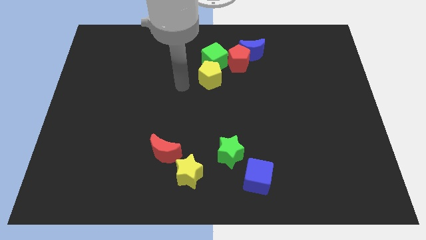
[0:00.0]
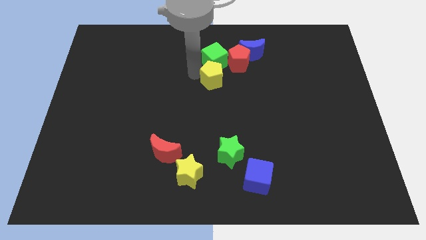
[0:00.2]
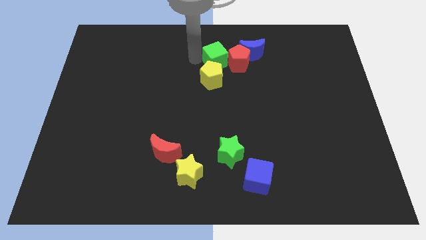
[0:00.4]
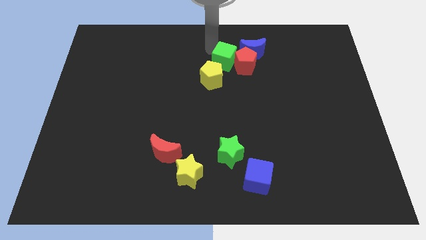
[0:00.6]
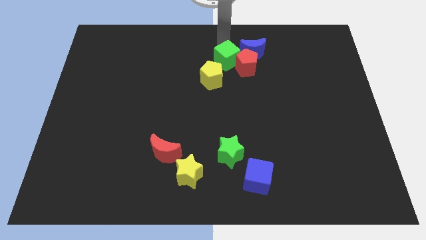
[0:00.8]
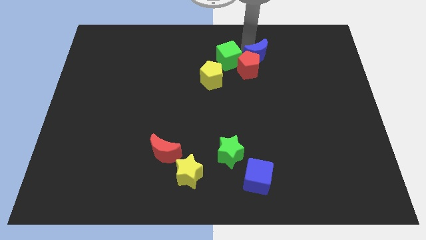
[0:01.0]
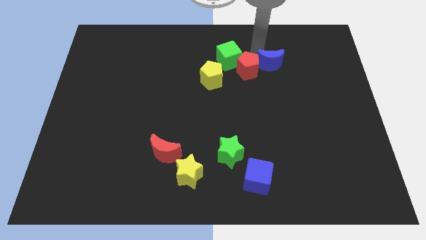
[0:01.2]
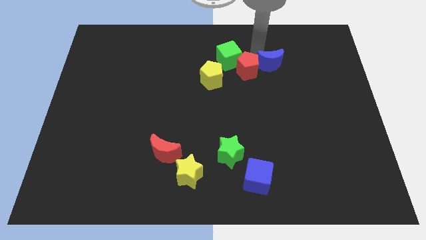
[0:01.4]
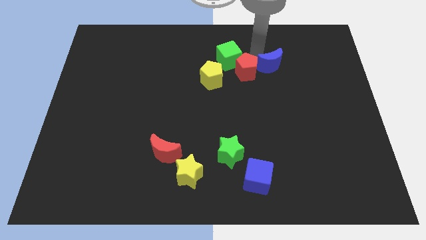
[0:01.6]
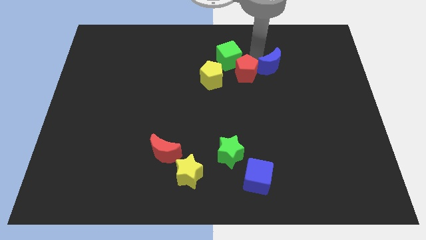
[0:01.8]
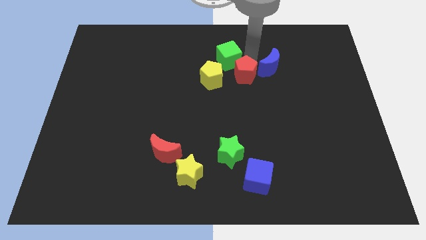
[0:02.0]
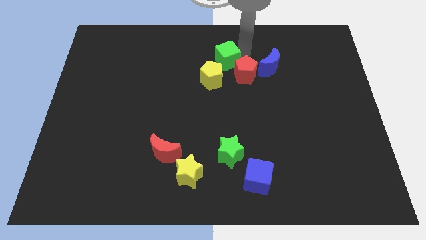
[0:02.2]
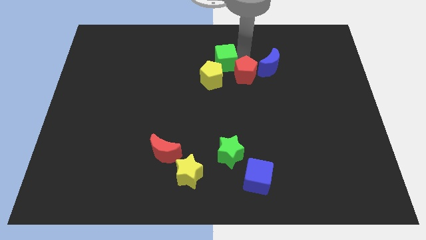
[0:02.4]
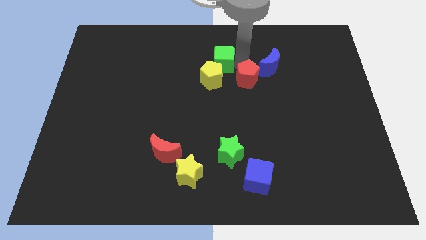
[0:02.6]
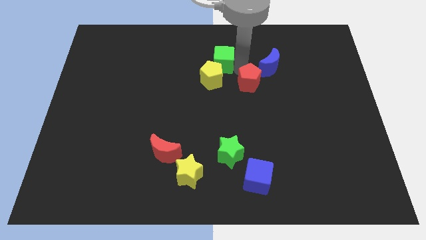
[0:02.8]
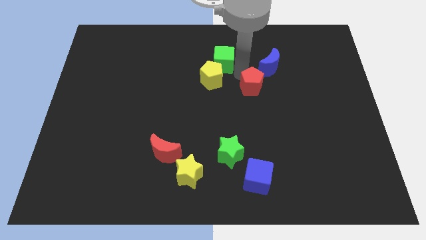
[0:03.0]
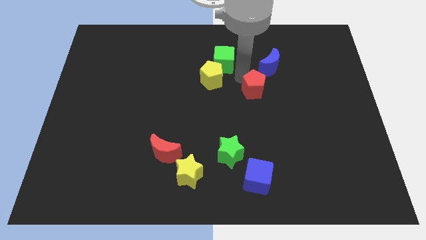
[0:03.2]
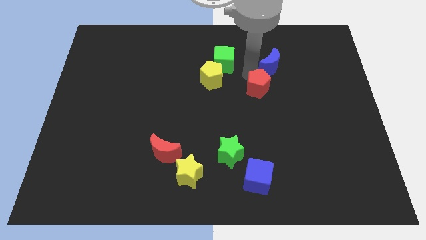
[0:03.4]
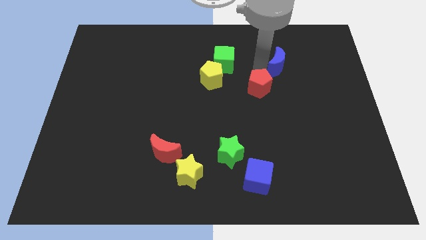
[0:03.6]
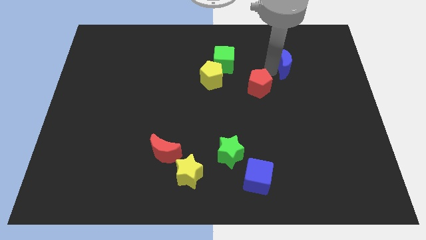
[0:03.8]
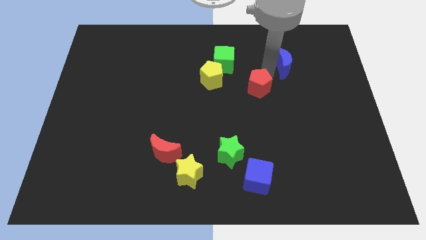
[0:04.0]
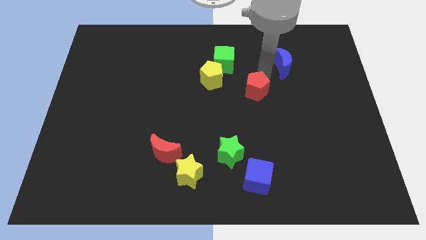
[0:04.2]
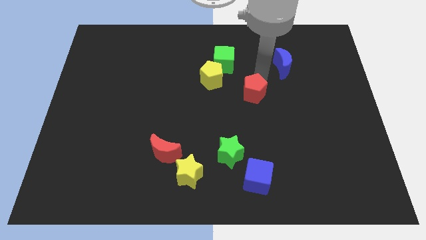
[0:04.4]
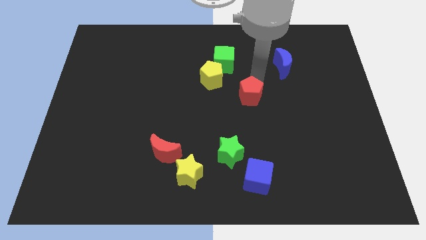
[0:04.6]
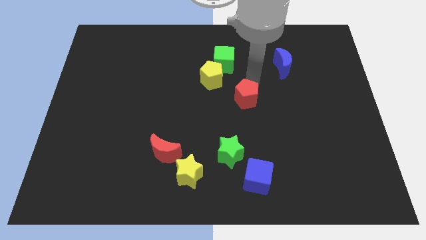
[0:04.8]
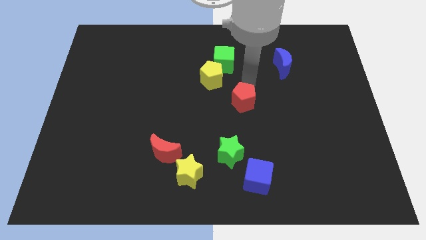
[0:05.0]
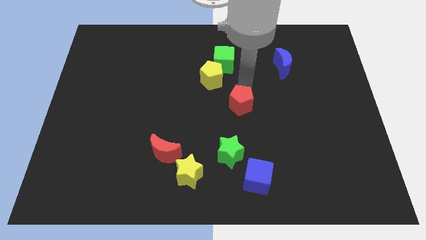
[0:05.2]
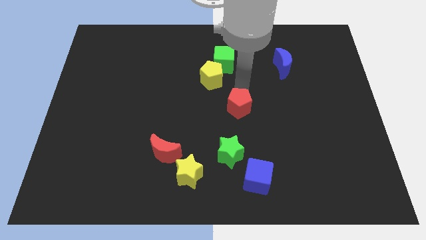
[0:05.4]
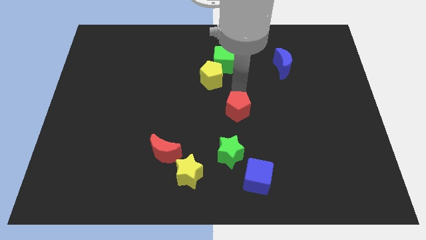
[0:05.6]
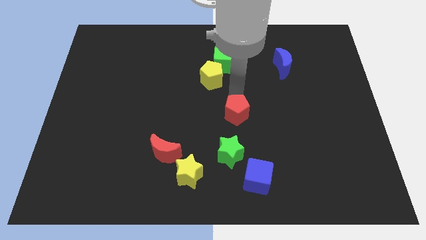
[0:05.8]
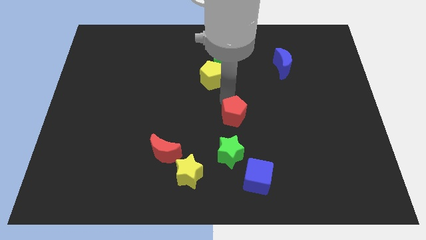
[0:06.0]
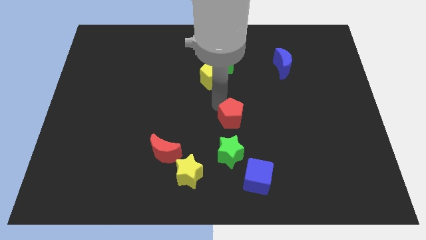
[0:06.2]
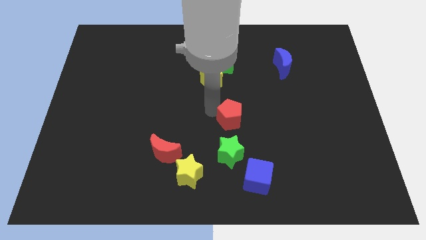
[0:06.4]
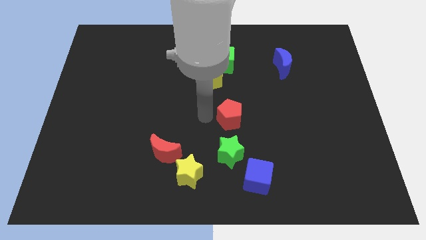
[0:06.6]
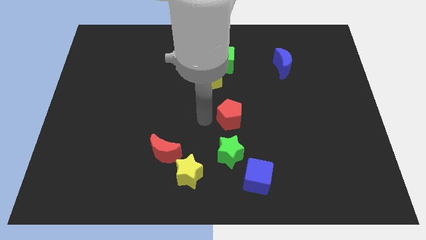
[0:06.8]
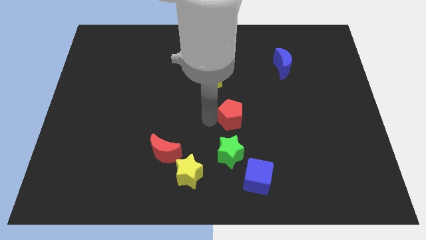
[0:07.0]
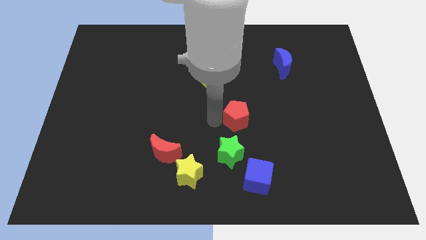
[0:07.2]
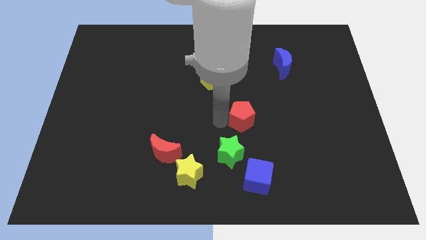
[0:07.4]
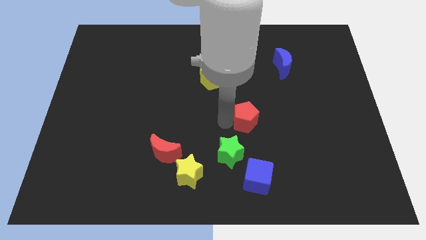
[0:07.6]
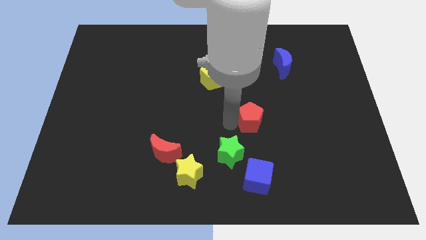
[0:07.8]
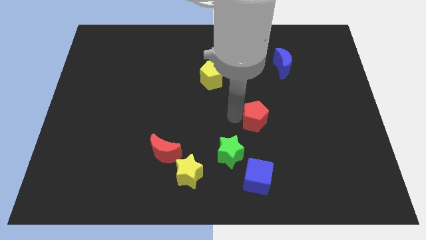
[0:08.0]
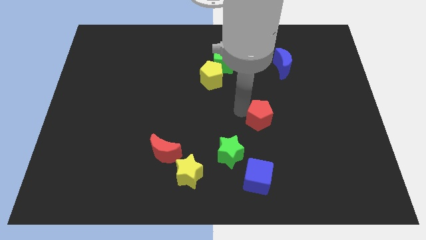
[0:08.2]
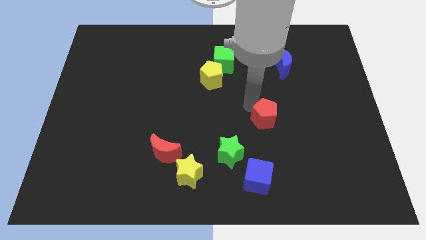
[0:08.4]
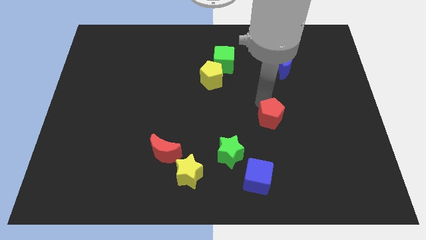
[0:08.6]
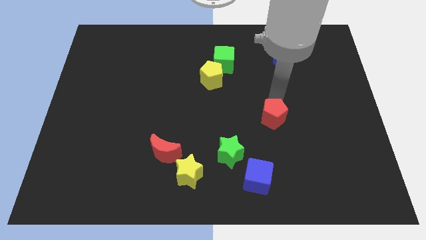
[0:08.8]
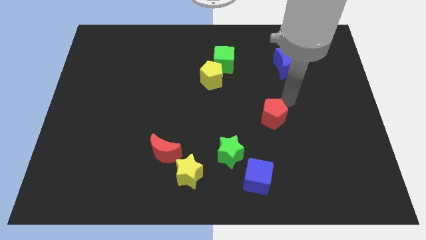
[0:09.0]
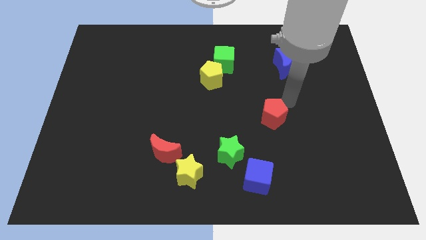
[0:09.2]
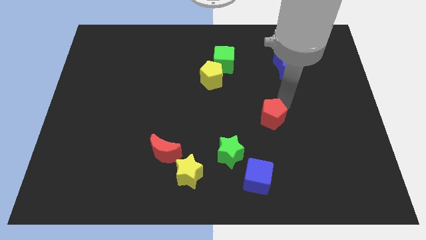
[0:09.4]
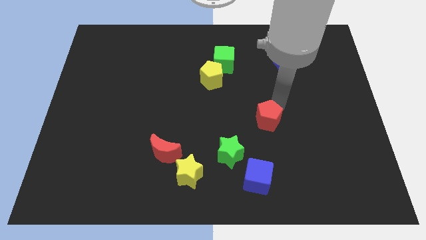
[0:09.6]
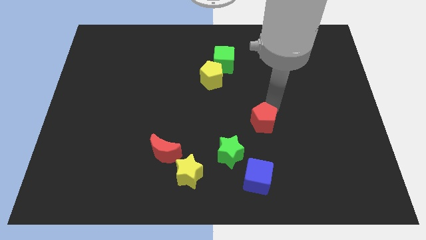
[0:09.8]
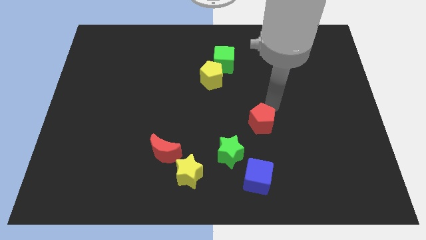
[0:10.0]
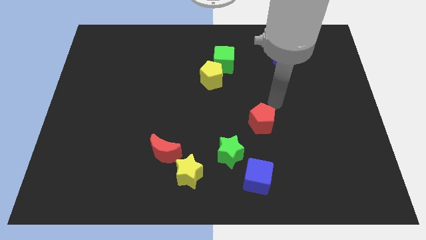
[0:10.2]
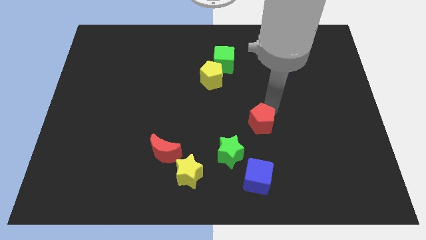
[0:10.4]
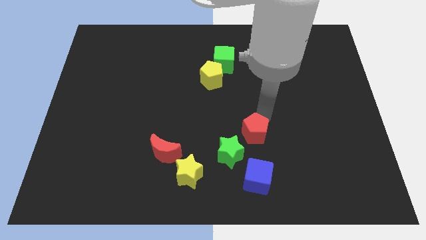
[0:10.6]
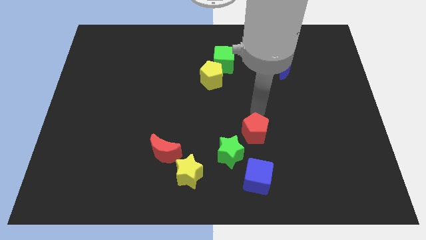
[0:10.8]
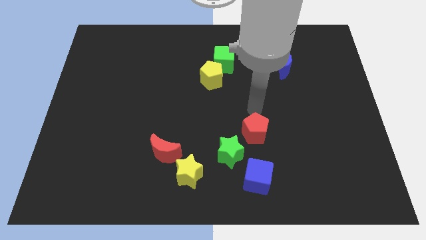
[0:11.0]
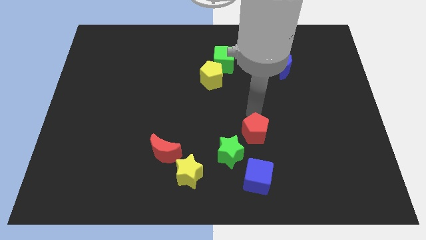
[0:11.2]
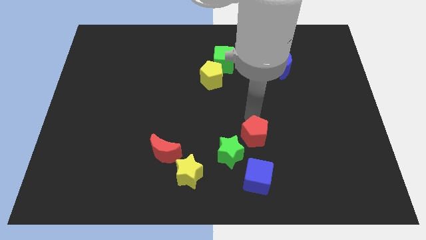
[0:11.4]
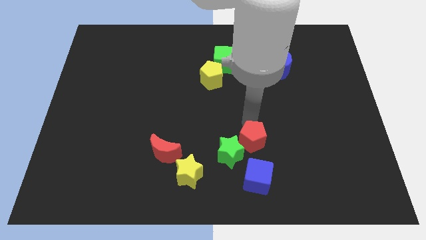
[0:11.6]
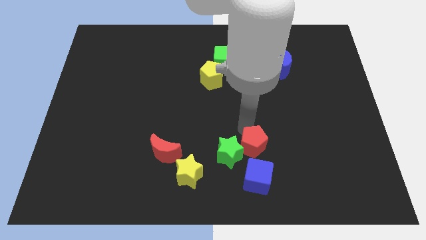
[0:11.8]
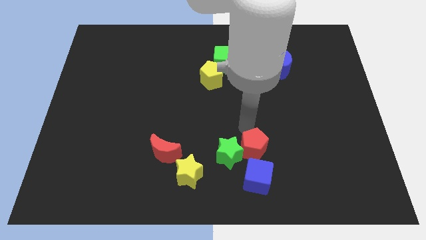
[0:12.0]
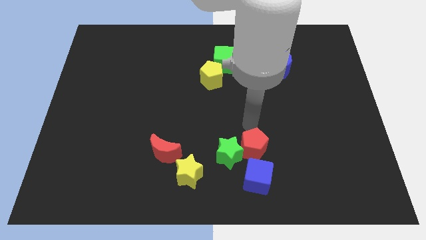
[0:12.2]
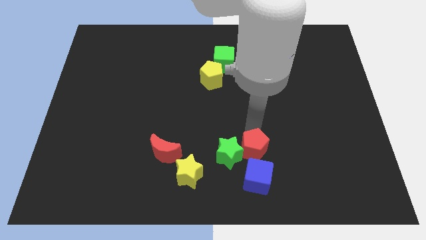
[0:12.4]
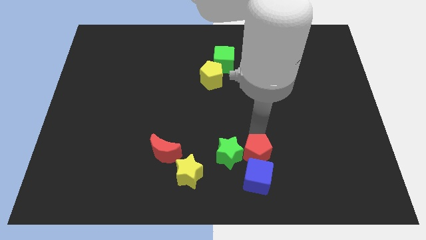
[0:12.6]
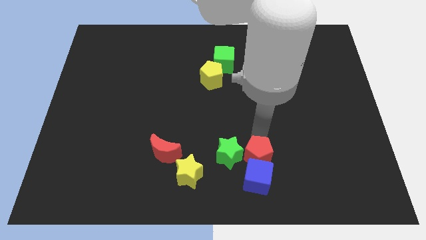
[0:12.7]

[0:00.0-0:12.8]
push the red pentagon to the blue cube

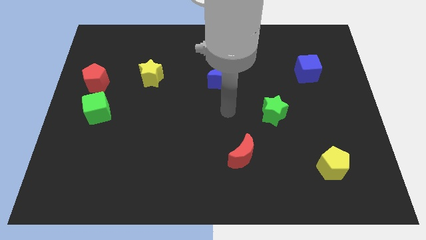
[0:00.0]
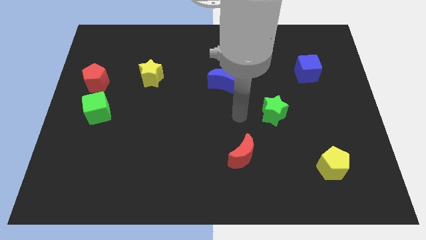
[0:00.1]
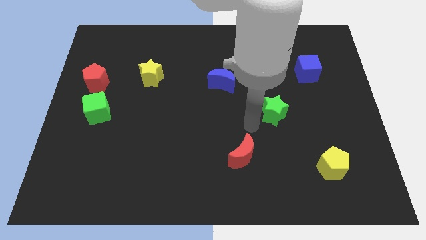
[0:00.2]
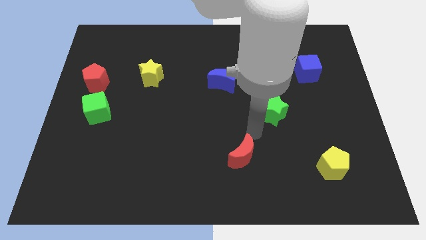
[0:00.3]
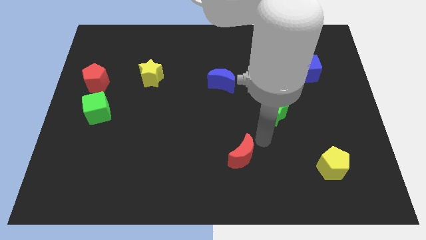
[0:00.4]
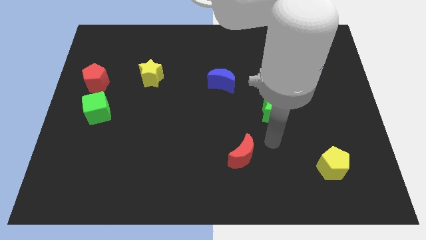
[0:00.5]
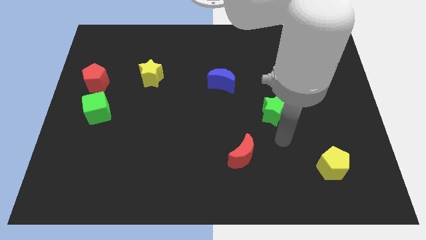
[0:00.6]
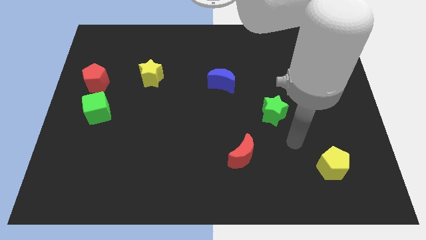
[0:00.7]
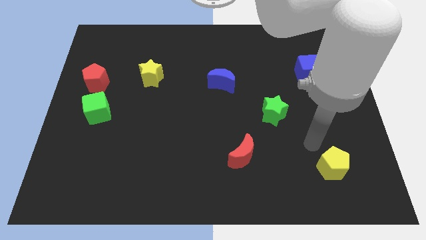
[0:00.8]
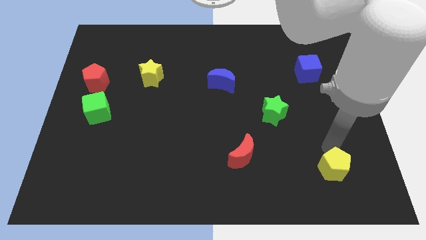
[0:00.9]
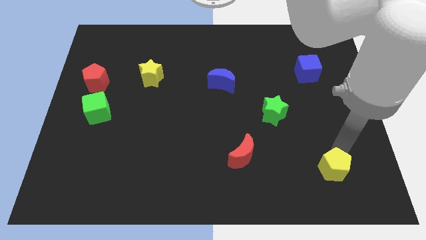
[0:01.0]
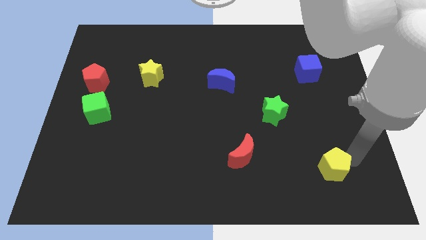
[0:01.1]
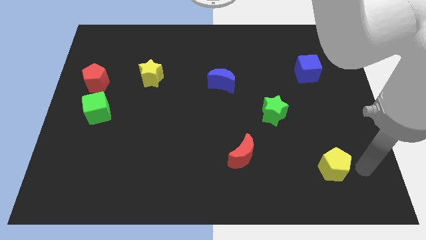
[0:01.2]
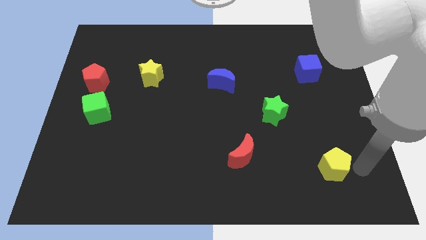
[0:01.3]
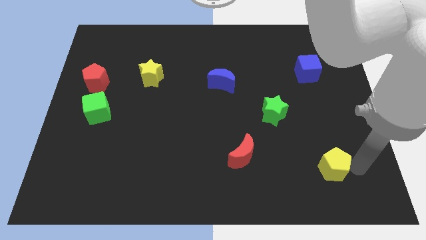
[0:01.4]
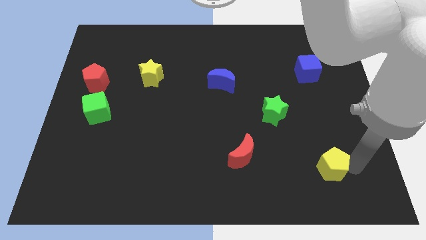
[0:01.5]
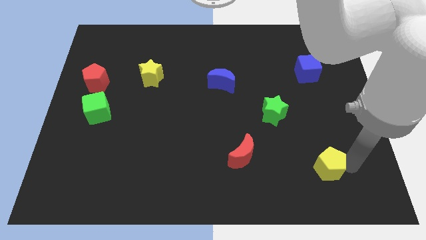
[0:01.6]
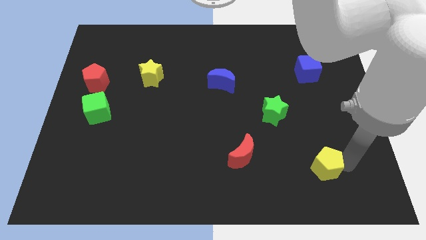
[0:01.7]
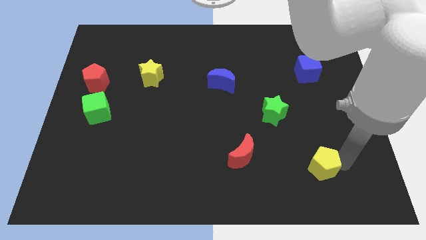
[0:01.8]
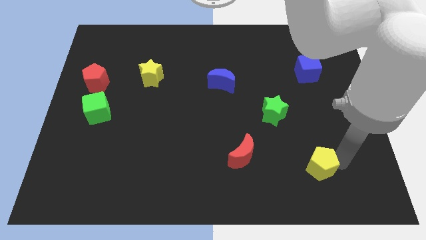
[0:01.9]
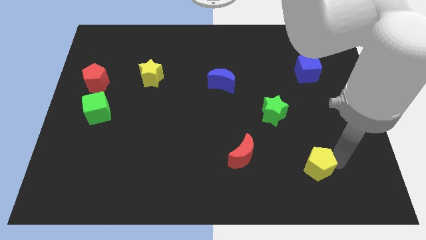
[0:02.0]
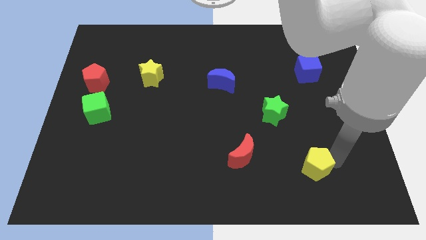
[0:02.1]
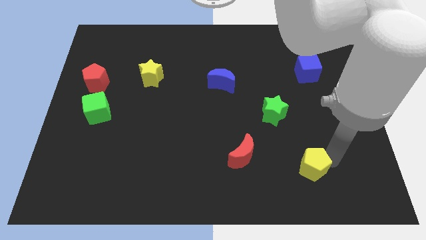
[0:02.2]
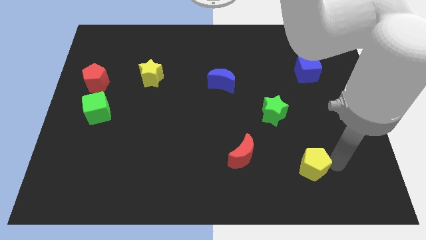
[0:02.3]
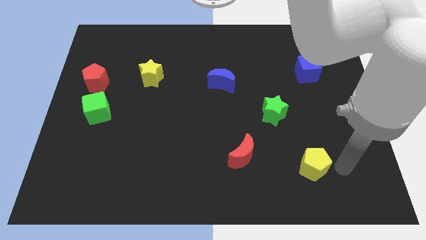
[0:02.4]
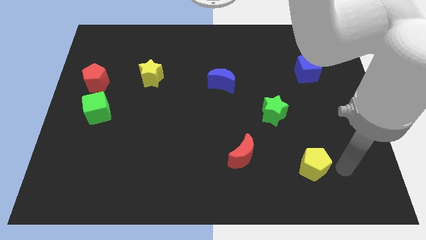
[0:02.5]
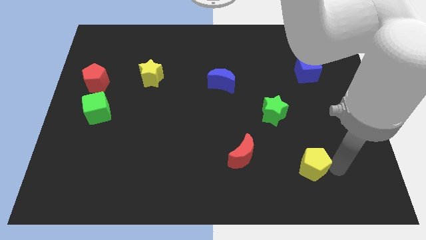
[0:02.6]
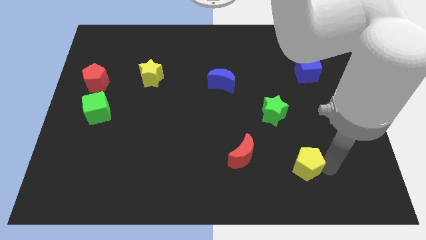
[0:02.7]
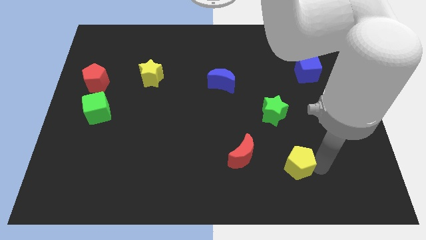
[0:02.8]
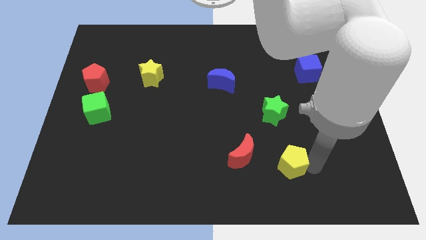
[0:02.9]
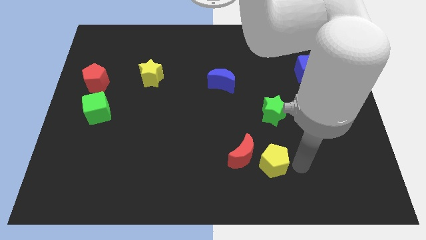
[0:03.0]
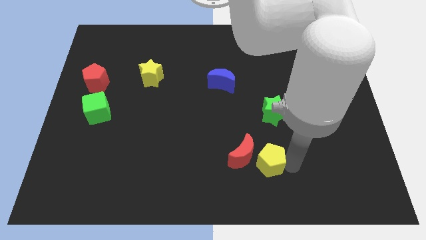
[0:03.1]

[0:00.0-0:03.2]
slide the yellow pentagon towards the red moon
